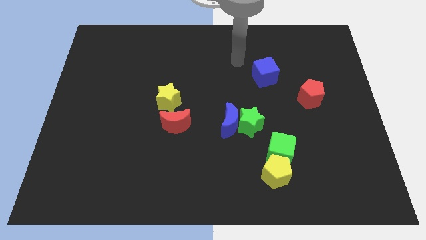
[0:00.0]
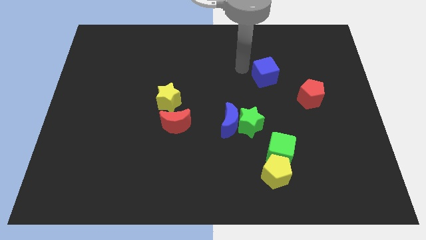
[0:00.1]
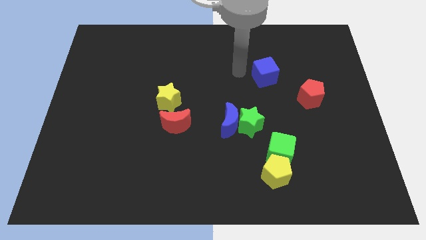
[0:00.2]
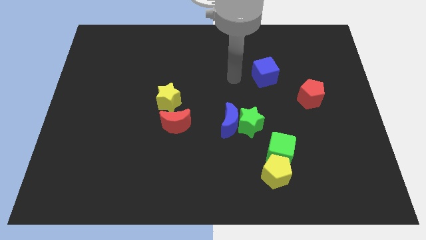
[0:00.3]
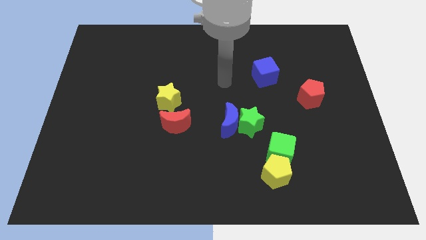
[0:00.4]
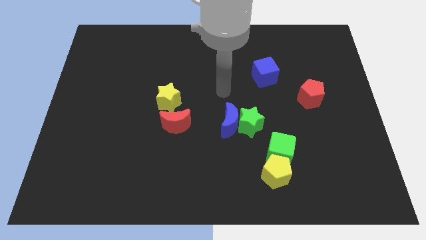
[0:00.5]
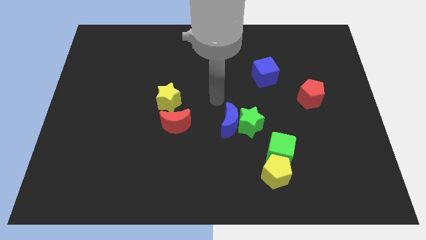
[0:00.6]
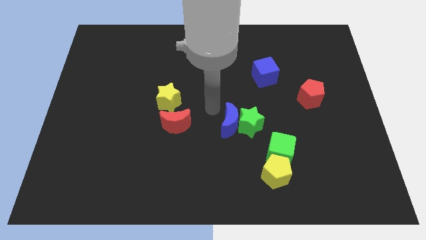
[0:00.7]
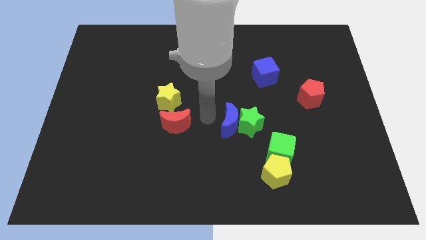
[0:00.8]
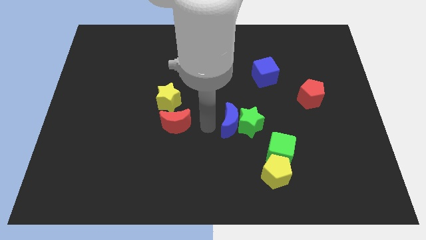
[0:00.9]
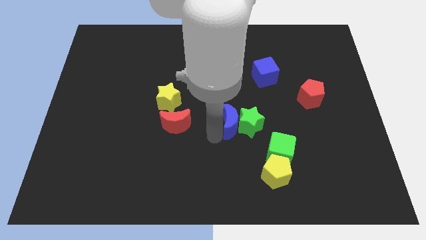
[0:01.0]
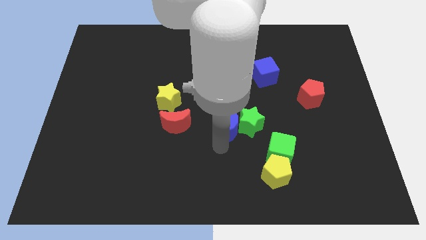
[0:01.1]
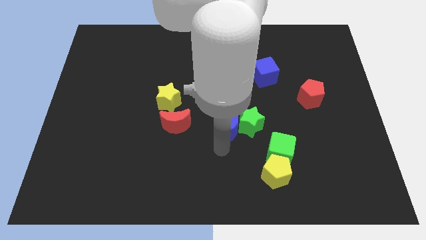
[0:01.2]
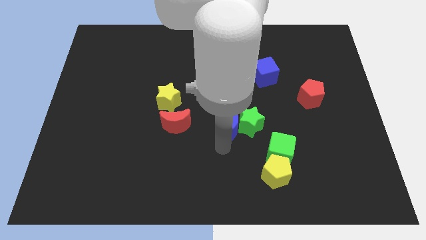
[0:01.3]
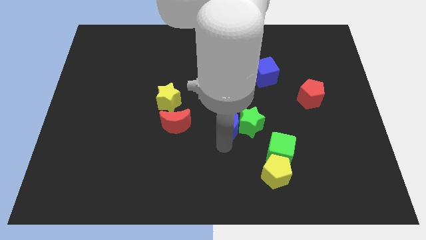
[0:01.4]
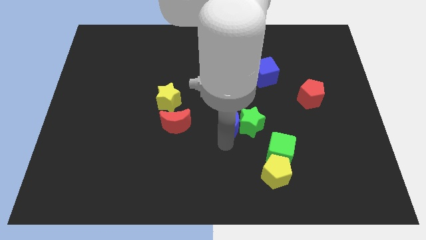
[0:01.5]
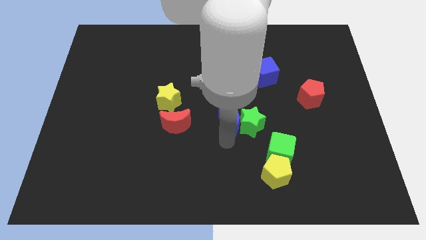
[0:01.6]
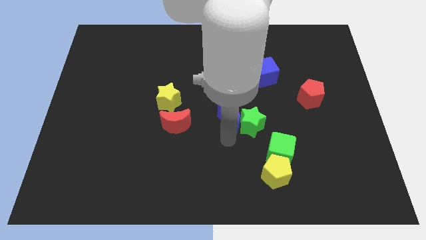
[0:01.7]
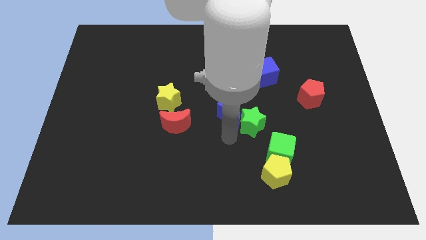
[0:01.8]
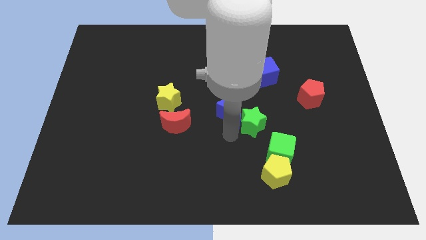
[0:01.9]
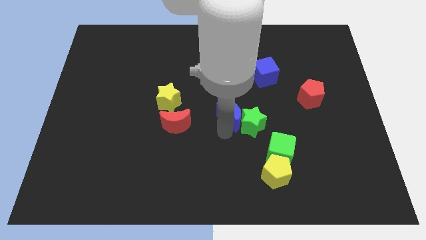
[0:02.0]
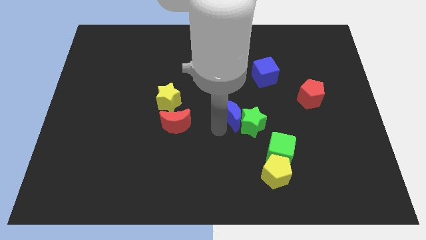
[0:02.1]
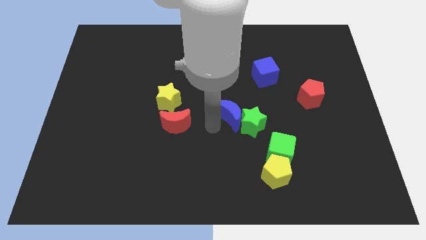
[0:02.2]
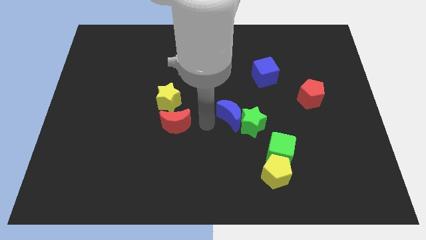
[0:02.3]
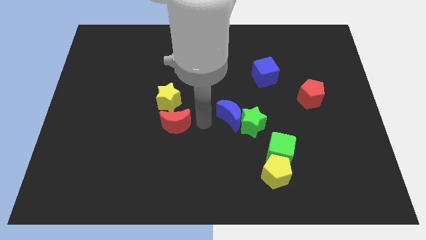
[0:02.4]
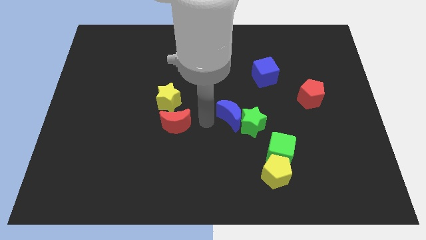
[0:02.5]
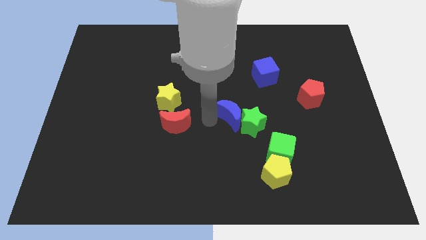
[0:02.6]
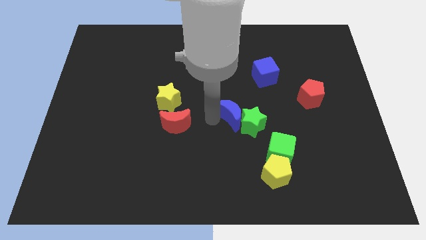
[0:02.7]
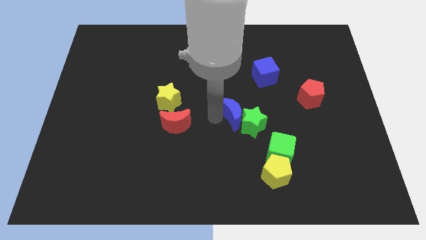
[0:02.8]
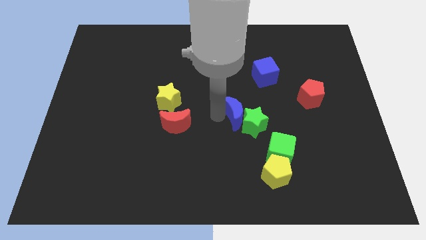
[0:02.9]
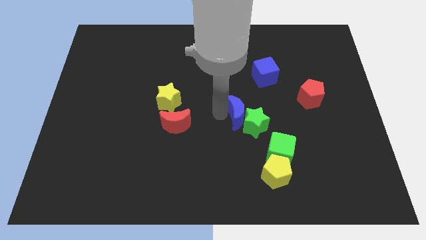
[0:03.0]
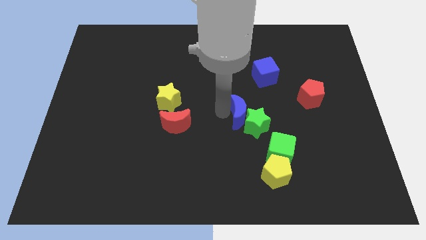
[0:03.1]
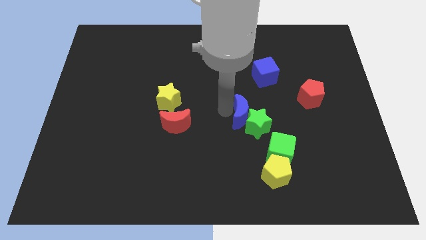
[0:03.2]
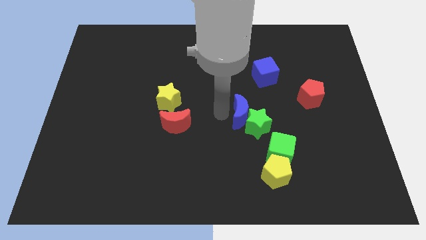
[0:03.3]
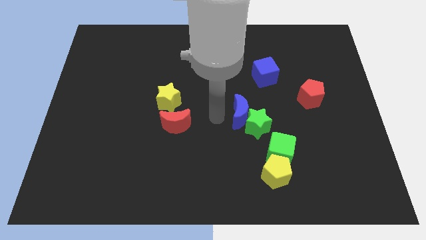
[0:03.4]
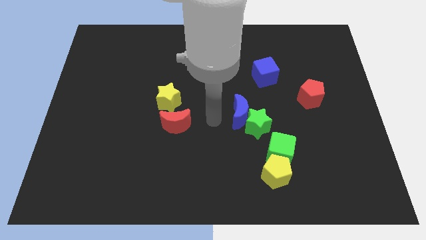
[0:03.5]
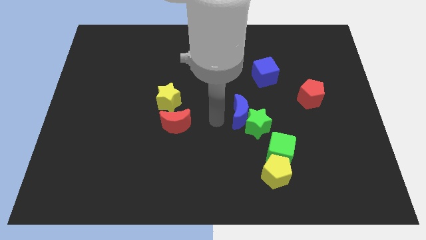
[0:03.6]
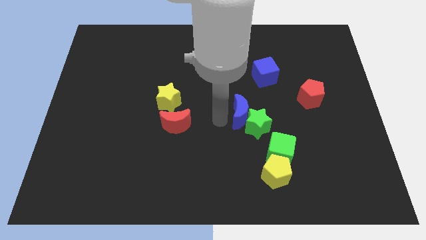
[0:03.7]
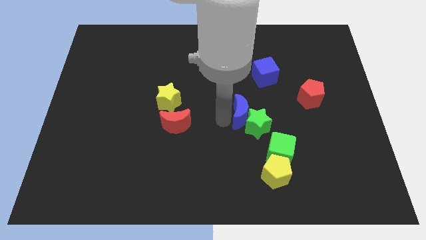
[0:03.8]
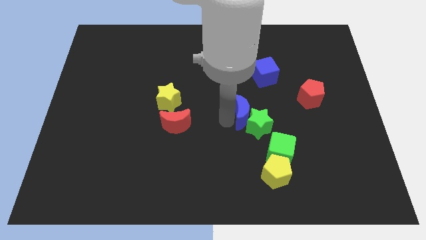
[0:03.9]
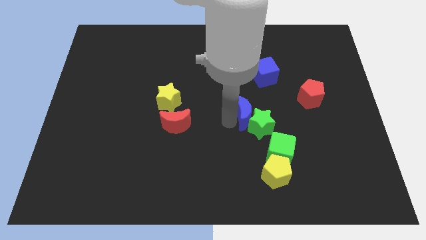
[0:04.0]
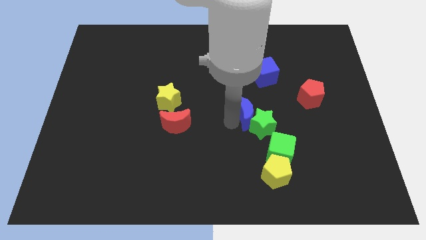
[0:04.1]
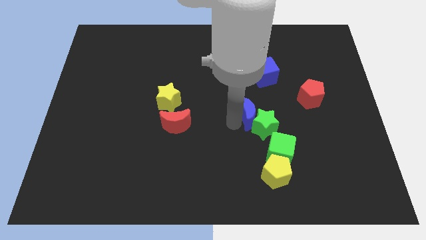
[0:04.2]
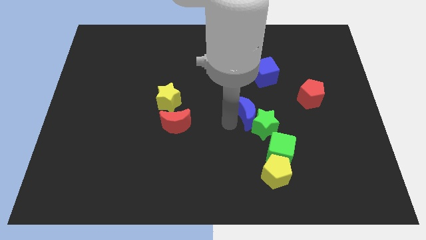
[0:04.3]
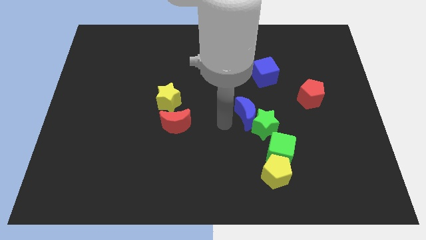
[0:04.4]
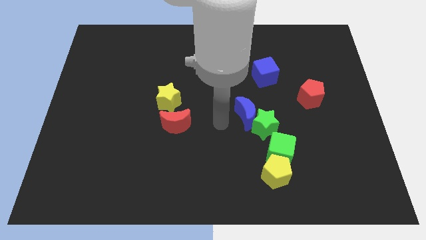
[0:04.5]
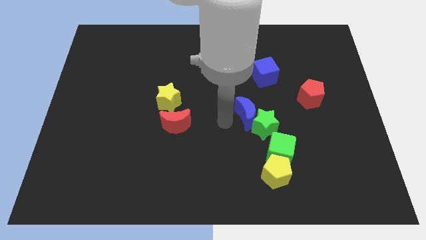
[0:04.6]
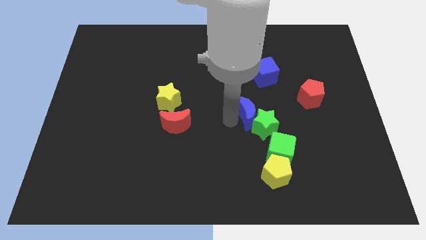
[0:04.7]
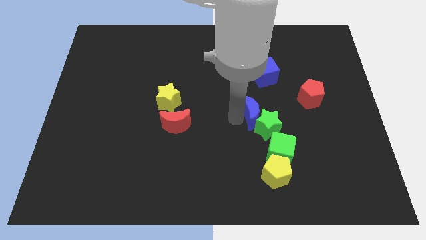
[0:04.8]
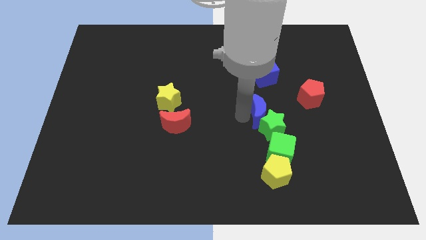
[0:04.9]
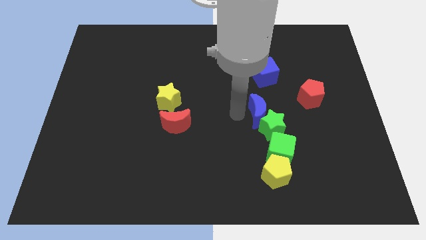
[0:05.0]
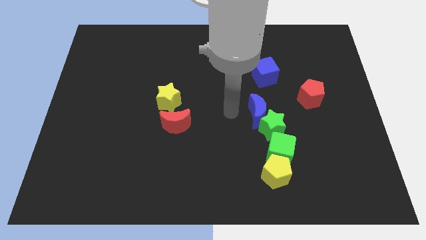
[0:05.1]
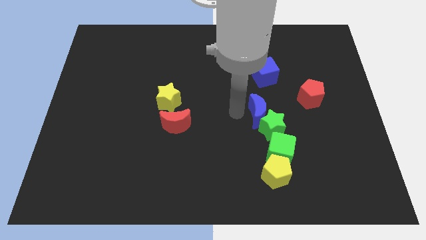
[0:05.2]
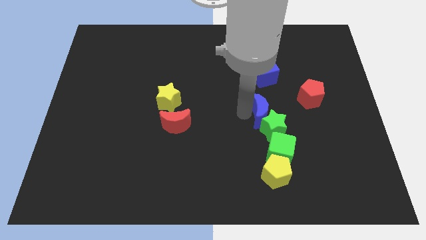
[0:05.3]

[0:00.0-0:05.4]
slightly move the blue moon to the right

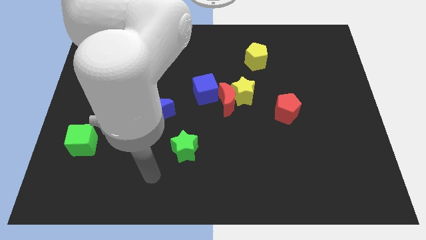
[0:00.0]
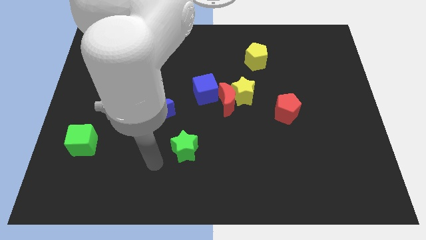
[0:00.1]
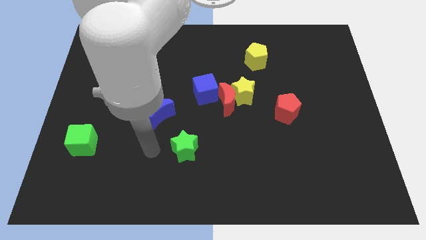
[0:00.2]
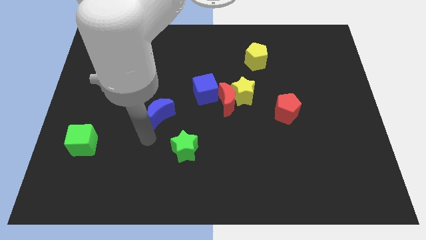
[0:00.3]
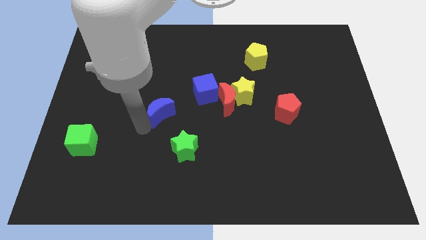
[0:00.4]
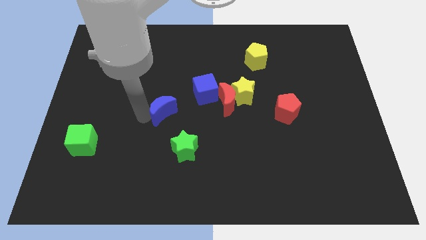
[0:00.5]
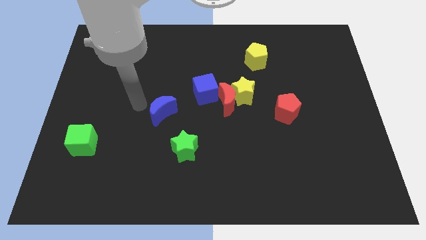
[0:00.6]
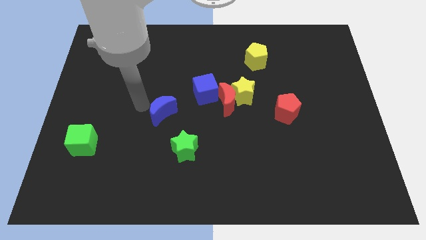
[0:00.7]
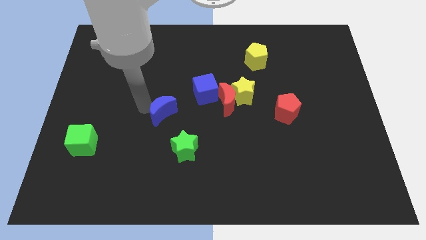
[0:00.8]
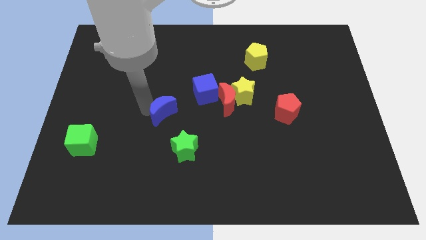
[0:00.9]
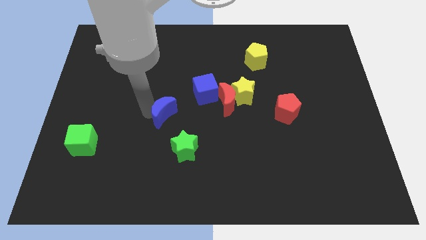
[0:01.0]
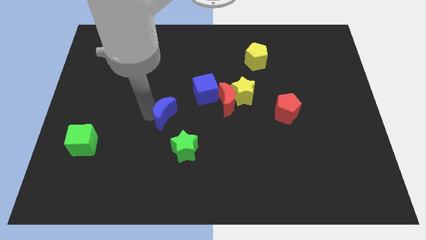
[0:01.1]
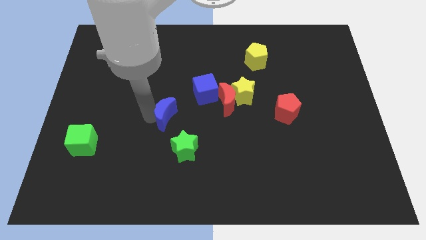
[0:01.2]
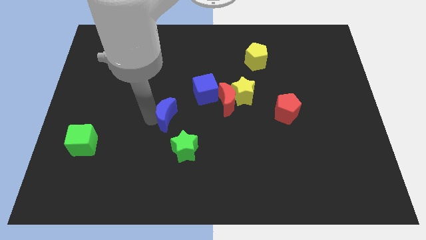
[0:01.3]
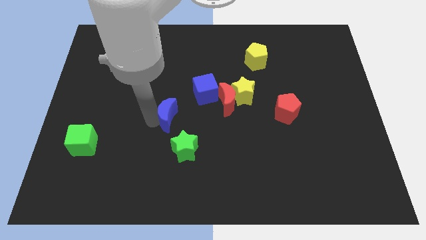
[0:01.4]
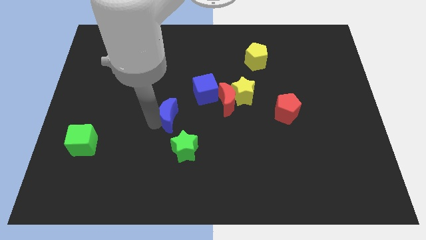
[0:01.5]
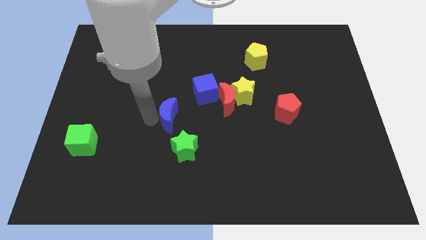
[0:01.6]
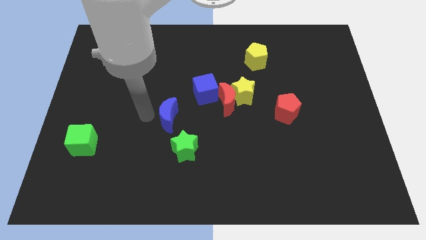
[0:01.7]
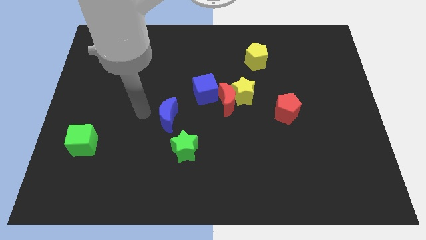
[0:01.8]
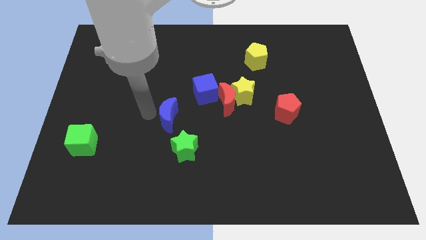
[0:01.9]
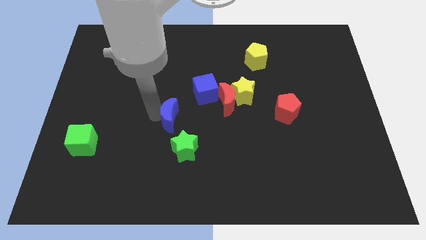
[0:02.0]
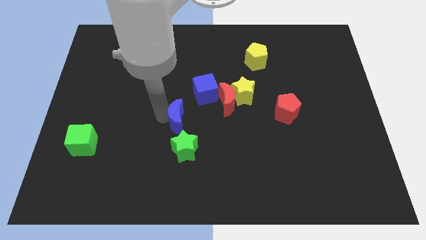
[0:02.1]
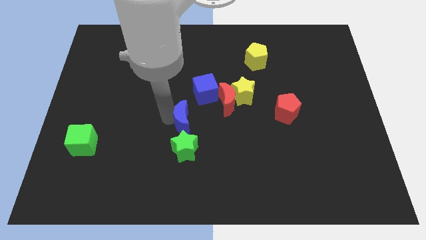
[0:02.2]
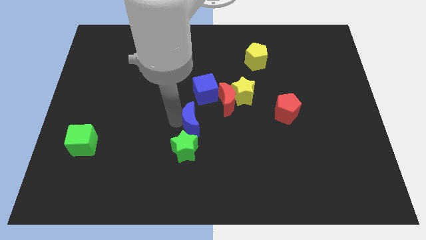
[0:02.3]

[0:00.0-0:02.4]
slightly slide the blue moon to the right
